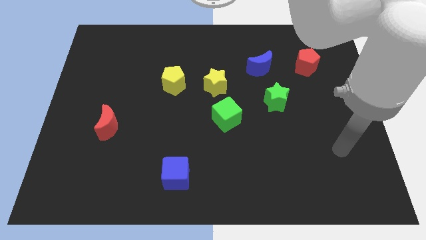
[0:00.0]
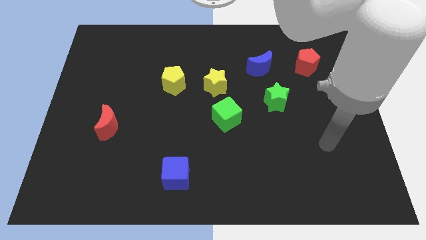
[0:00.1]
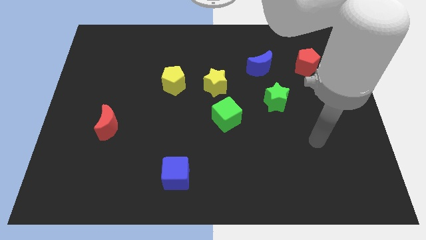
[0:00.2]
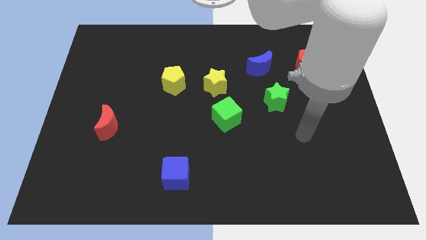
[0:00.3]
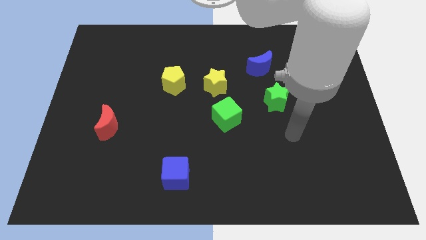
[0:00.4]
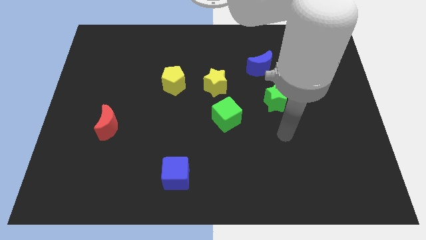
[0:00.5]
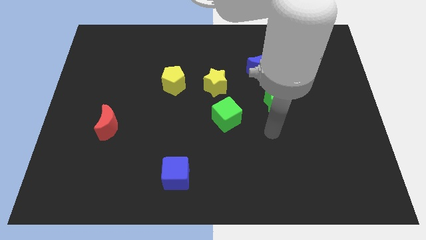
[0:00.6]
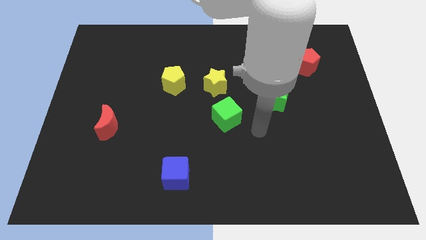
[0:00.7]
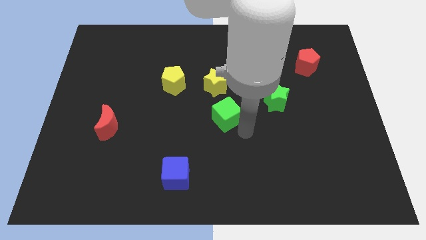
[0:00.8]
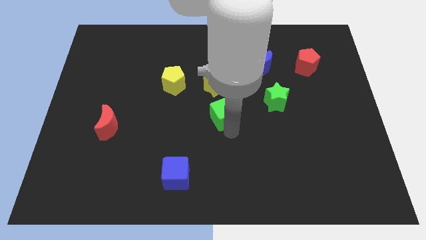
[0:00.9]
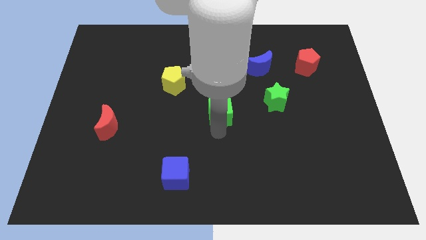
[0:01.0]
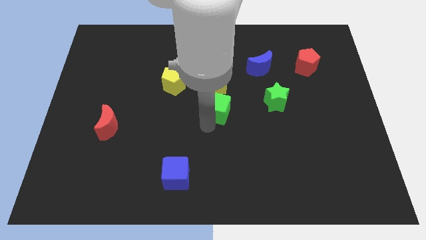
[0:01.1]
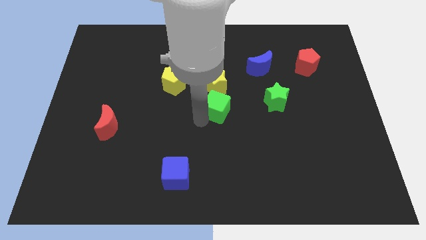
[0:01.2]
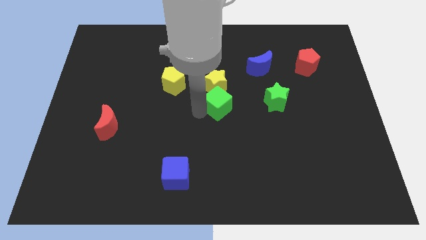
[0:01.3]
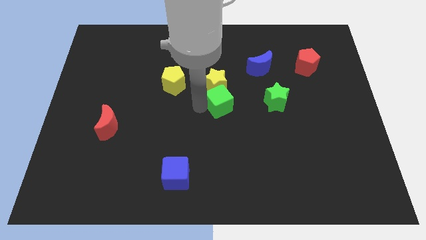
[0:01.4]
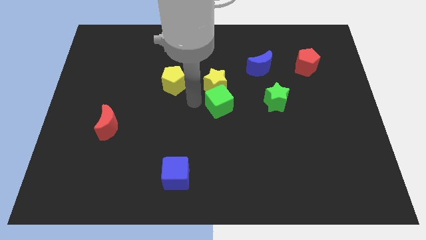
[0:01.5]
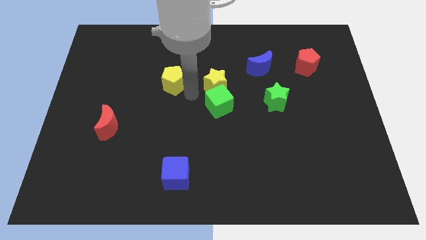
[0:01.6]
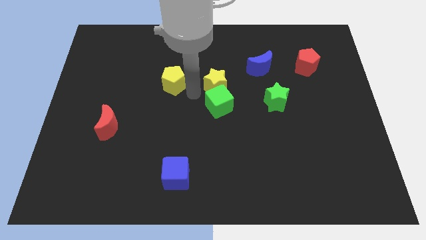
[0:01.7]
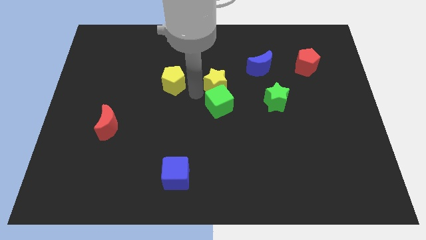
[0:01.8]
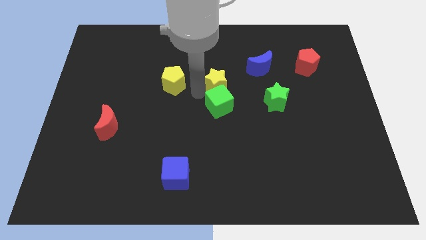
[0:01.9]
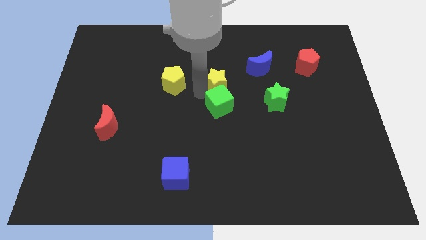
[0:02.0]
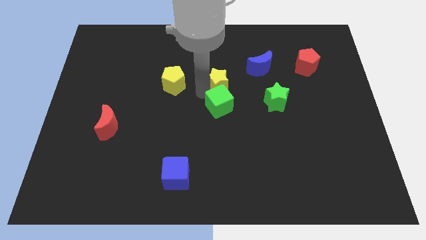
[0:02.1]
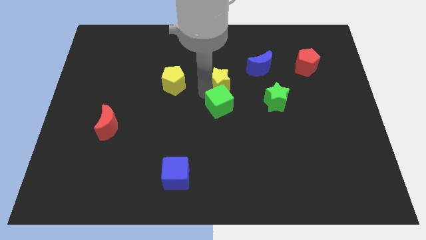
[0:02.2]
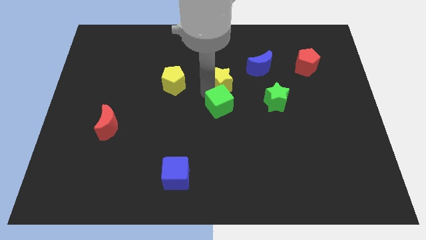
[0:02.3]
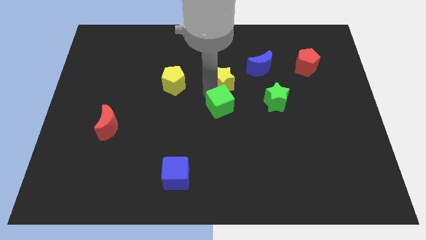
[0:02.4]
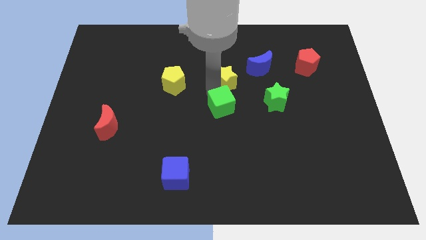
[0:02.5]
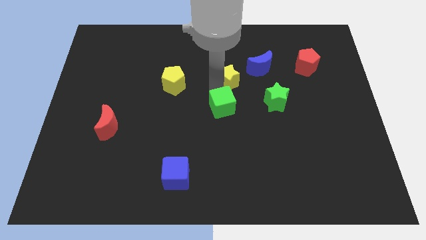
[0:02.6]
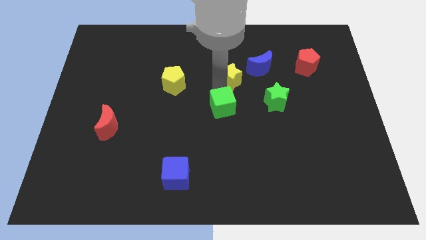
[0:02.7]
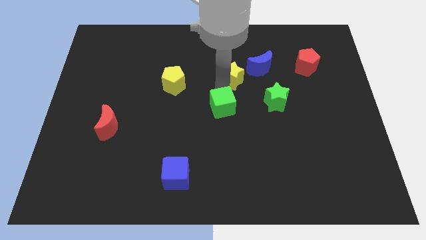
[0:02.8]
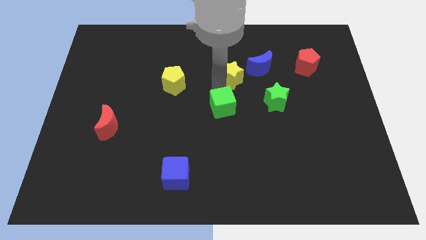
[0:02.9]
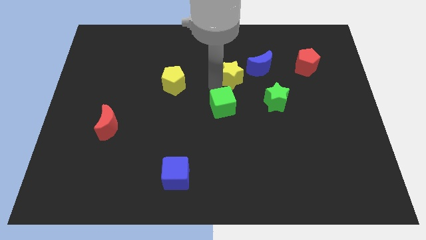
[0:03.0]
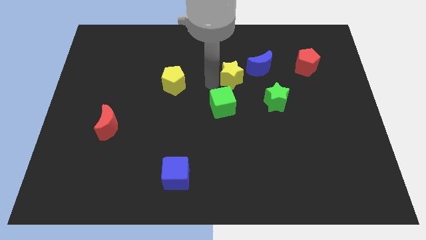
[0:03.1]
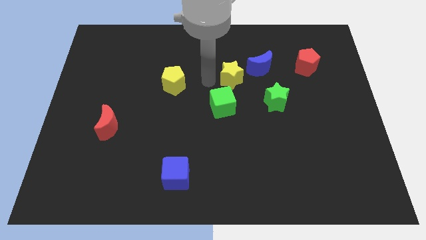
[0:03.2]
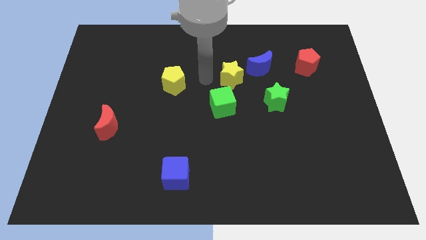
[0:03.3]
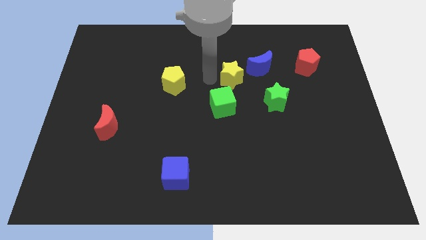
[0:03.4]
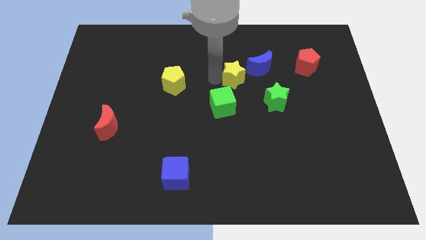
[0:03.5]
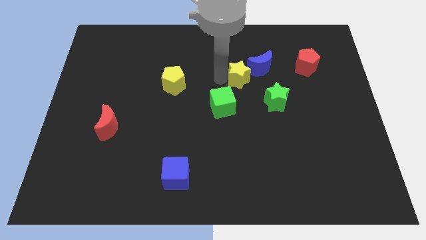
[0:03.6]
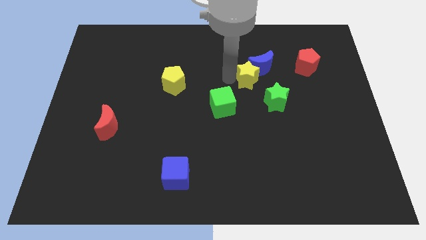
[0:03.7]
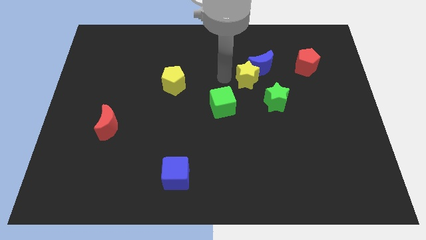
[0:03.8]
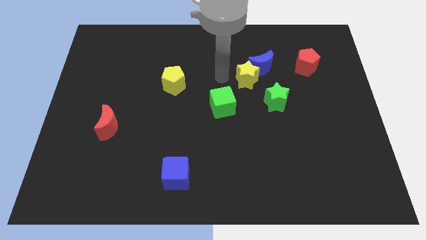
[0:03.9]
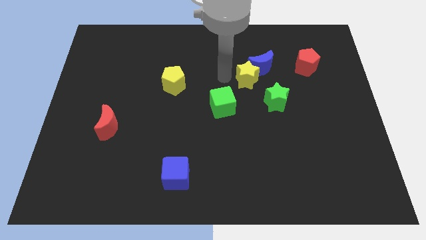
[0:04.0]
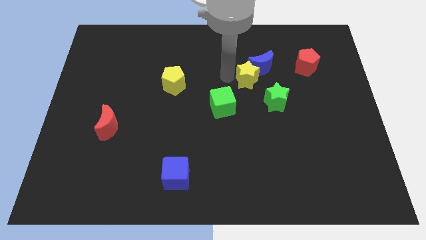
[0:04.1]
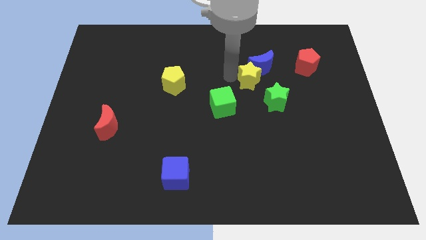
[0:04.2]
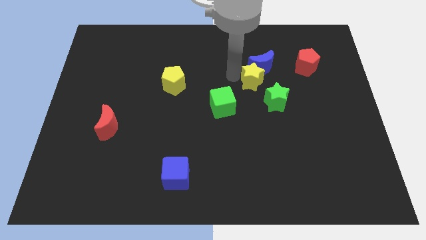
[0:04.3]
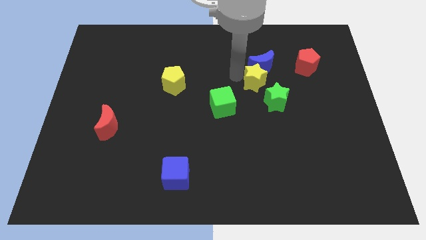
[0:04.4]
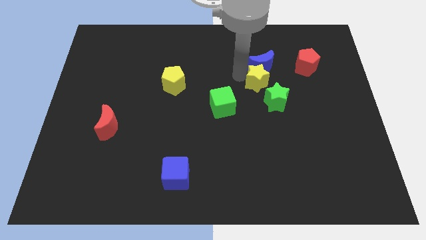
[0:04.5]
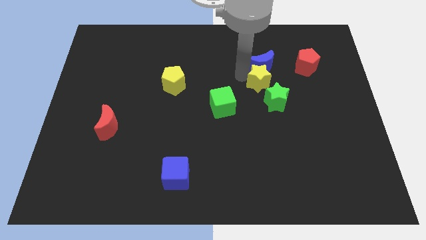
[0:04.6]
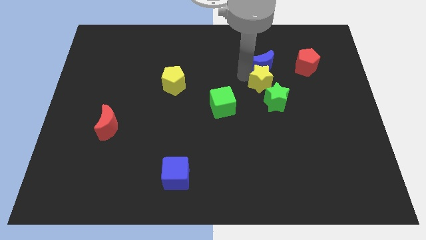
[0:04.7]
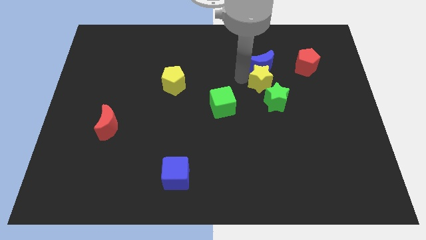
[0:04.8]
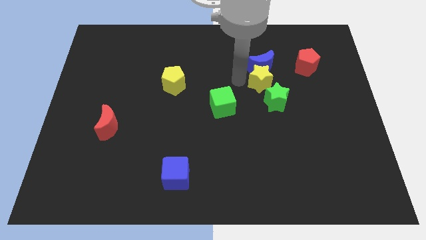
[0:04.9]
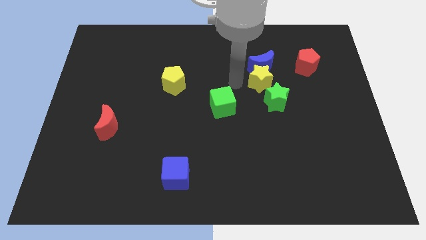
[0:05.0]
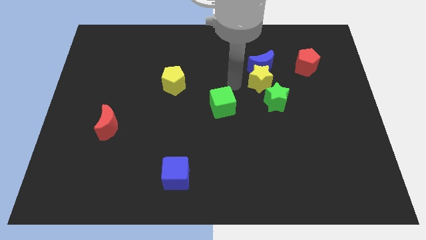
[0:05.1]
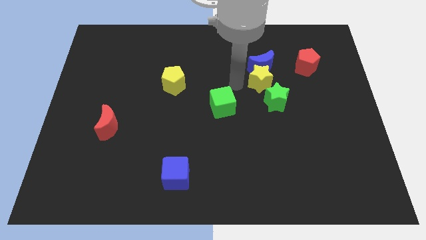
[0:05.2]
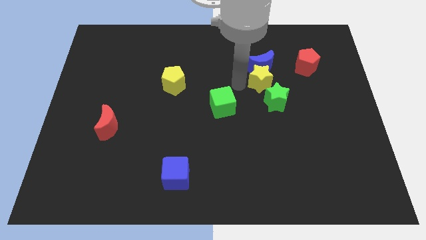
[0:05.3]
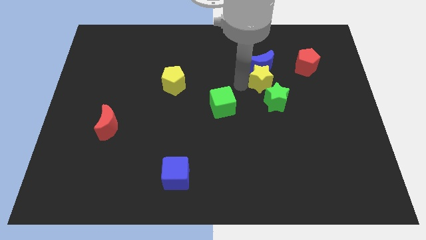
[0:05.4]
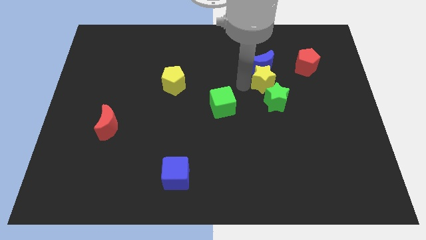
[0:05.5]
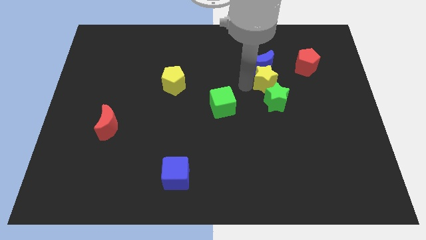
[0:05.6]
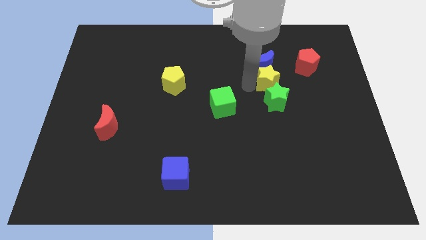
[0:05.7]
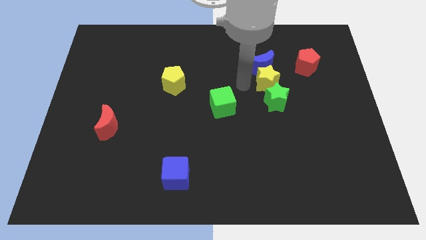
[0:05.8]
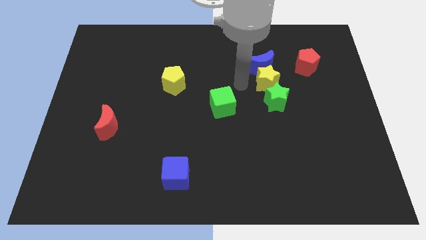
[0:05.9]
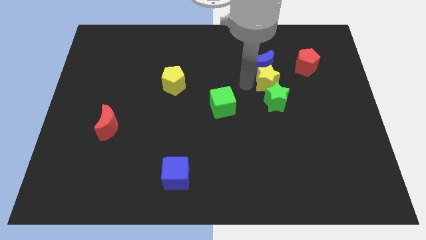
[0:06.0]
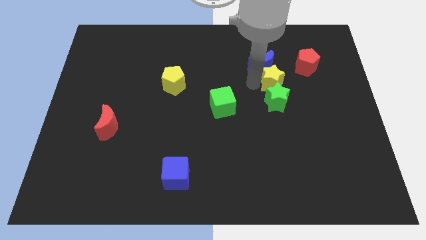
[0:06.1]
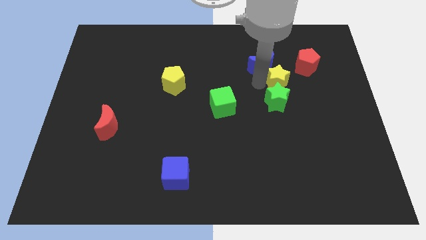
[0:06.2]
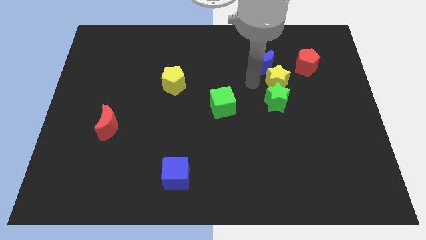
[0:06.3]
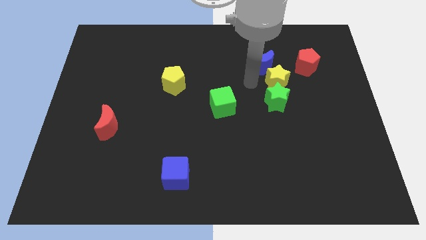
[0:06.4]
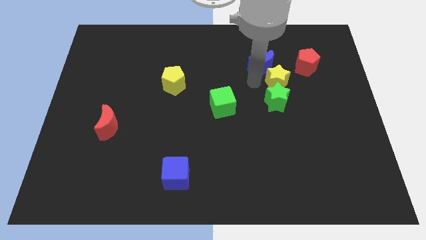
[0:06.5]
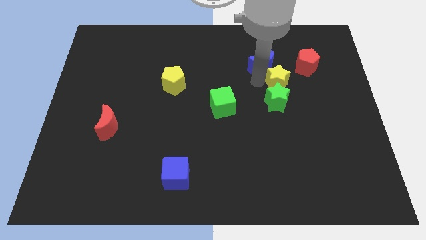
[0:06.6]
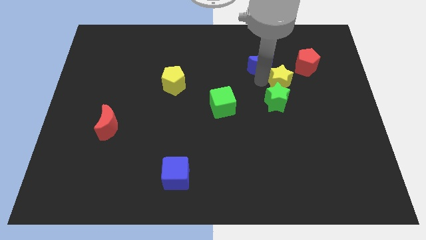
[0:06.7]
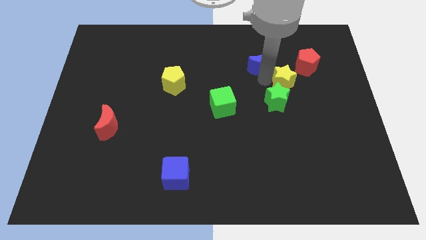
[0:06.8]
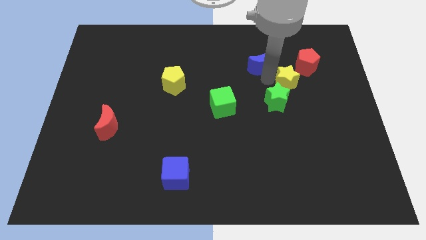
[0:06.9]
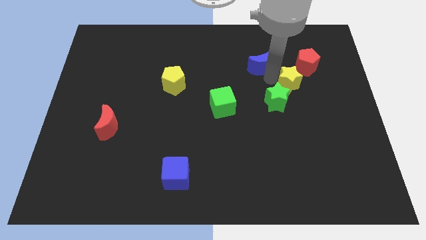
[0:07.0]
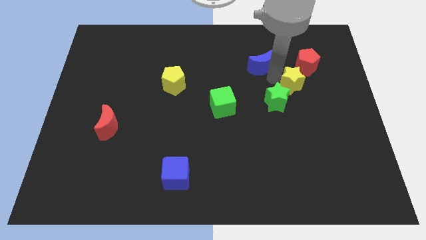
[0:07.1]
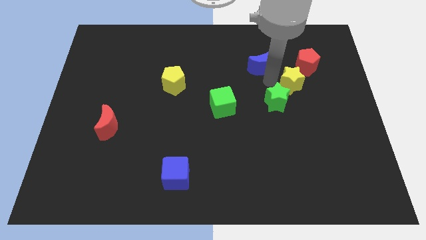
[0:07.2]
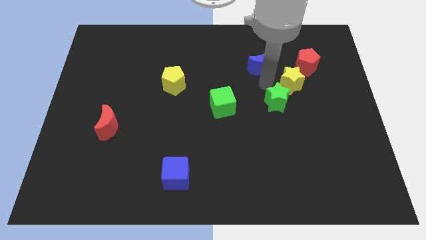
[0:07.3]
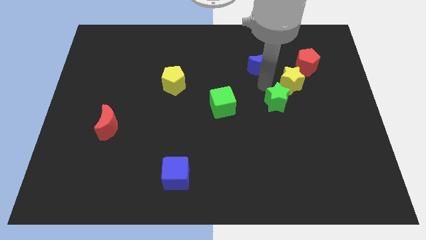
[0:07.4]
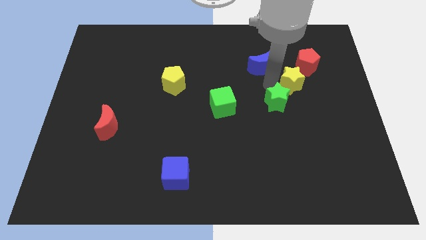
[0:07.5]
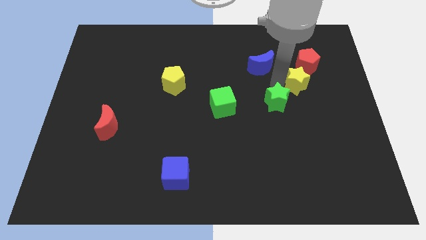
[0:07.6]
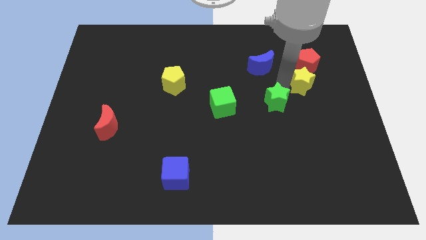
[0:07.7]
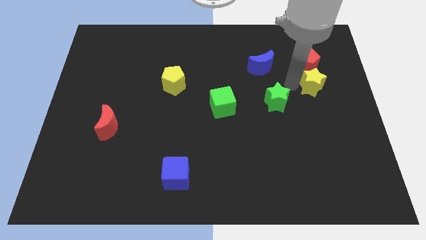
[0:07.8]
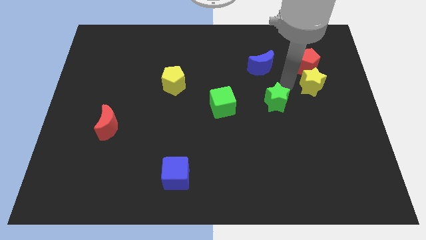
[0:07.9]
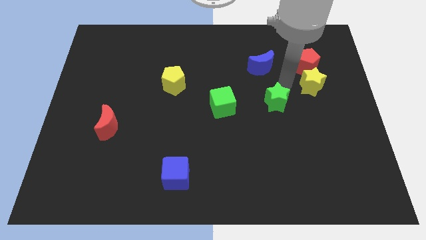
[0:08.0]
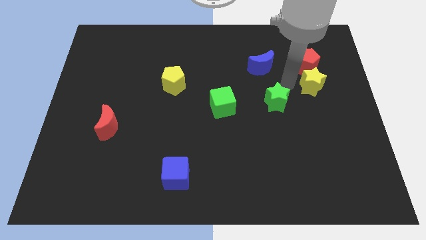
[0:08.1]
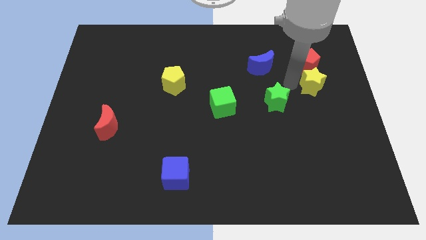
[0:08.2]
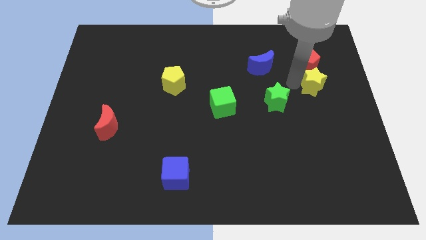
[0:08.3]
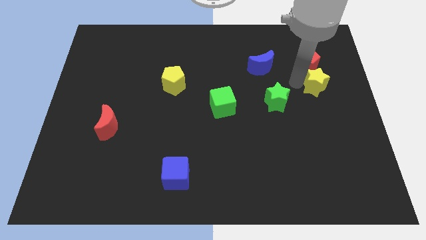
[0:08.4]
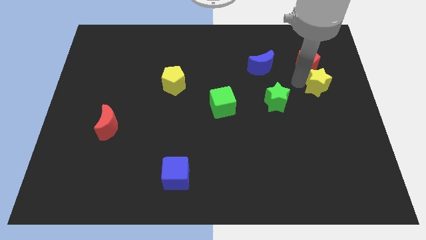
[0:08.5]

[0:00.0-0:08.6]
put the yellow star to the right side of the board
